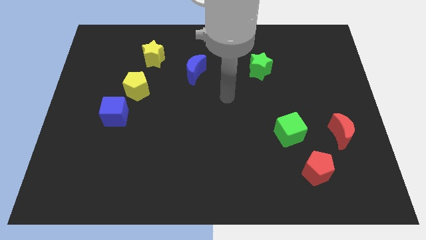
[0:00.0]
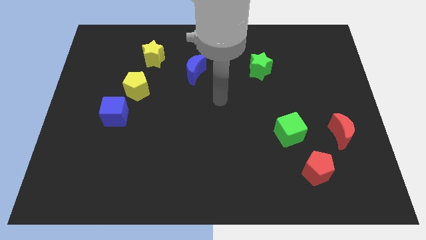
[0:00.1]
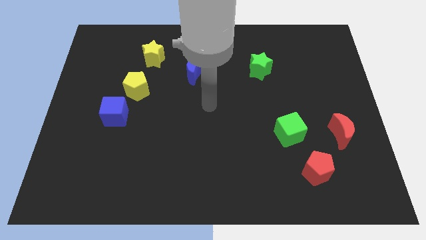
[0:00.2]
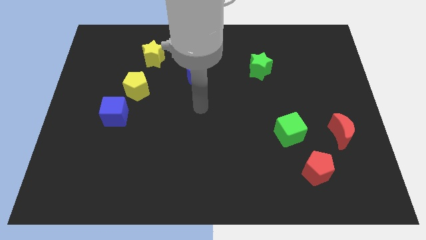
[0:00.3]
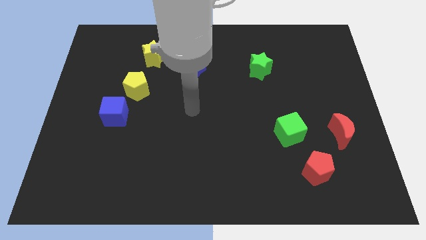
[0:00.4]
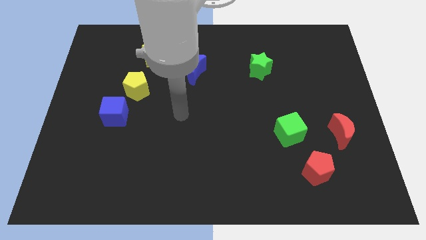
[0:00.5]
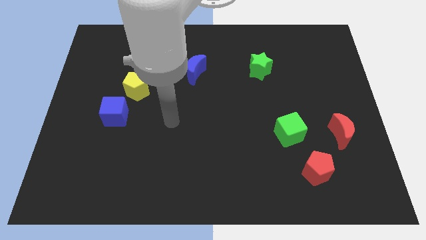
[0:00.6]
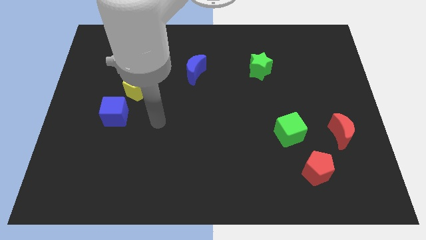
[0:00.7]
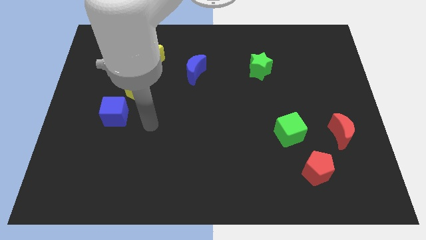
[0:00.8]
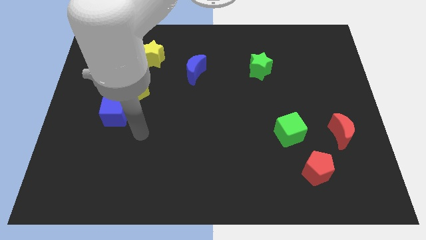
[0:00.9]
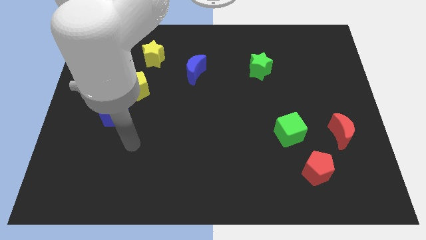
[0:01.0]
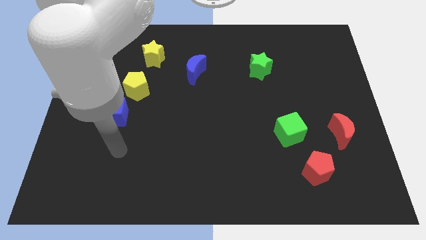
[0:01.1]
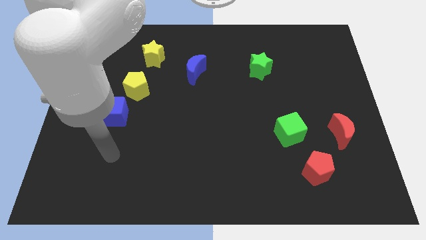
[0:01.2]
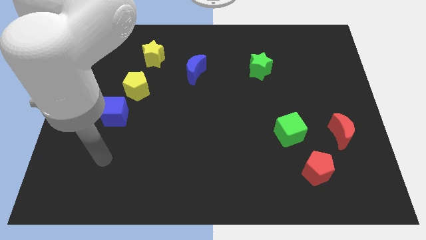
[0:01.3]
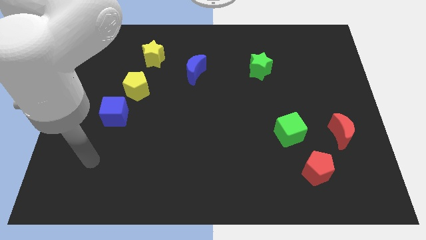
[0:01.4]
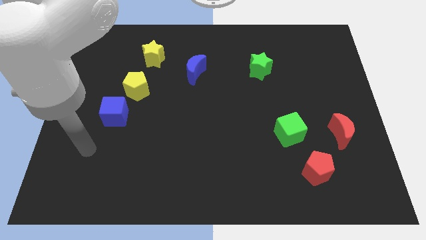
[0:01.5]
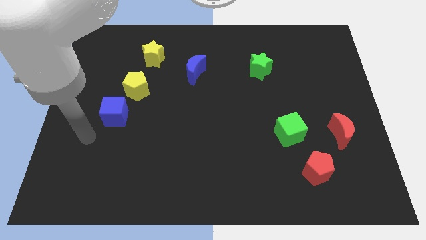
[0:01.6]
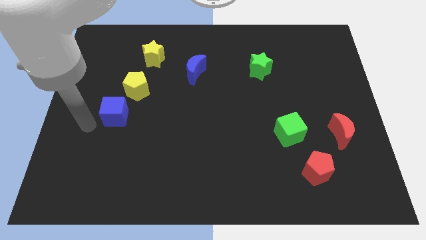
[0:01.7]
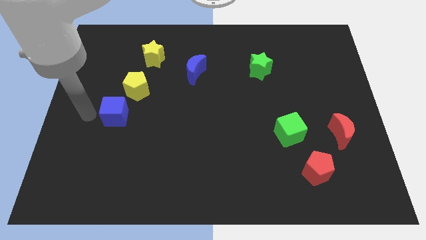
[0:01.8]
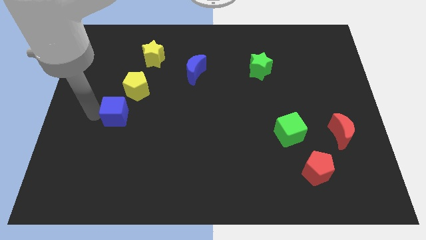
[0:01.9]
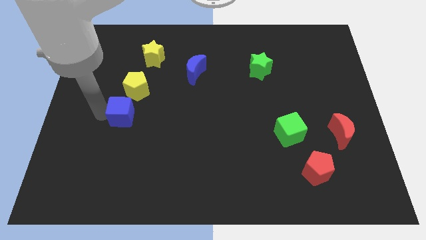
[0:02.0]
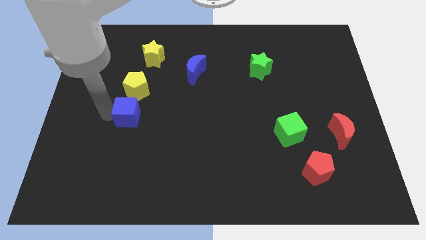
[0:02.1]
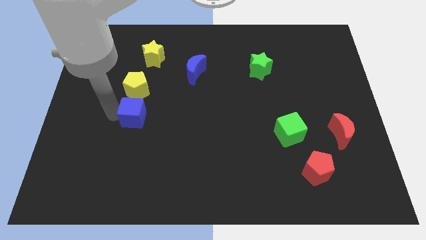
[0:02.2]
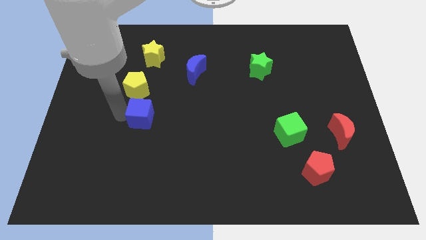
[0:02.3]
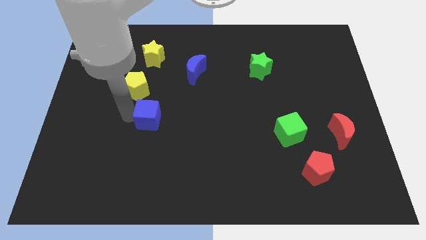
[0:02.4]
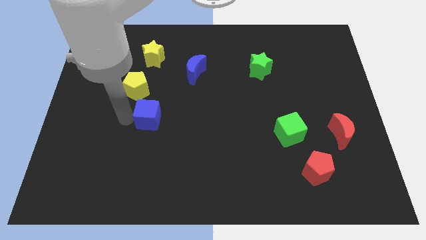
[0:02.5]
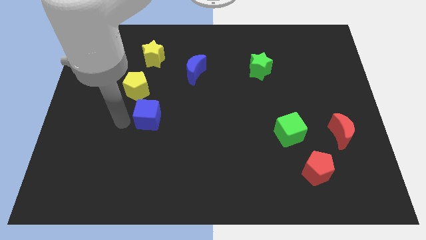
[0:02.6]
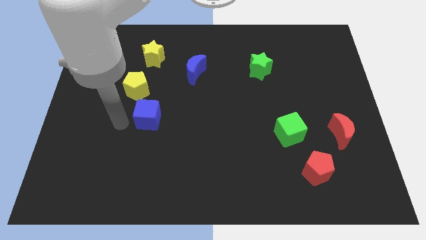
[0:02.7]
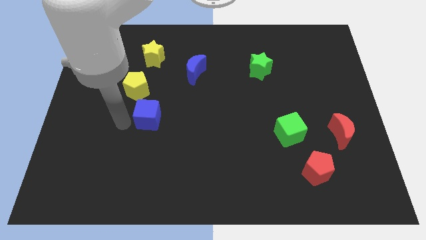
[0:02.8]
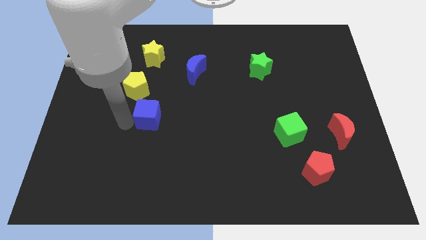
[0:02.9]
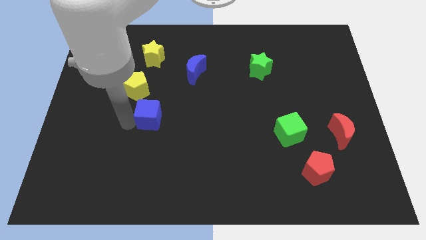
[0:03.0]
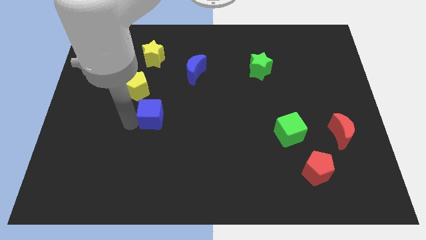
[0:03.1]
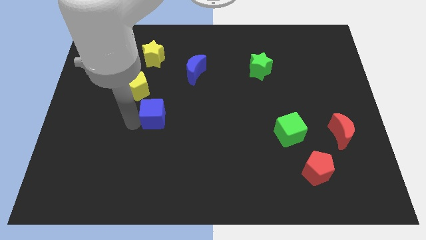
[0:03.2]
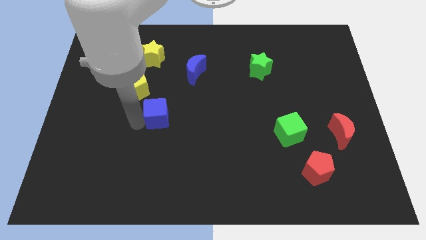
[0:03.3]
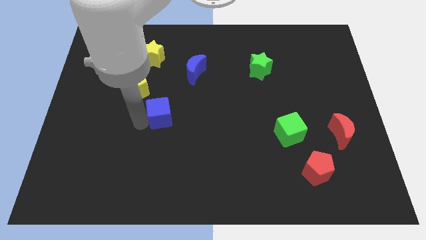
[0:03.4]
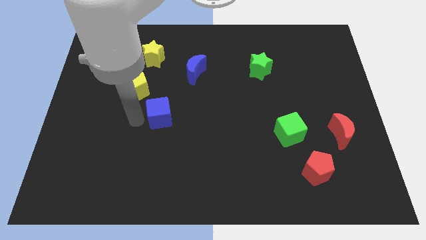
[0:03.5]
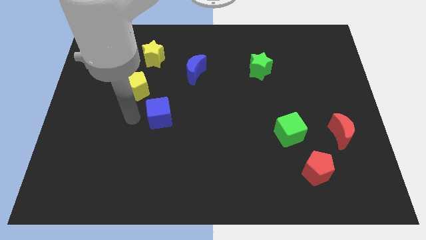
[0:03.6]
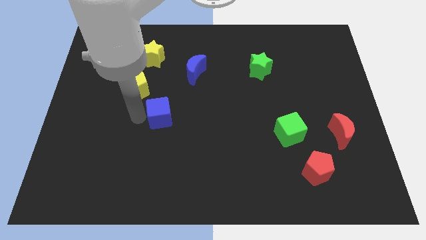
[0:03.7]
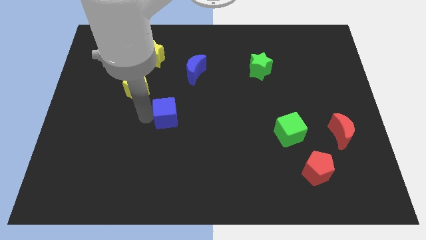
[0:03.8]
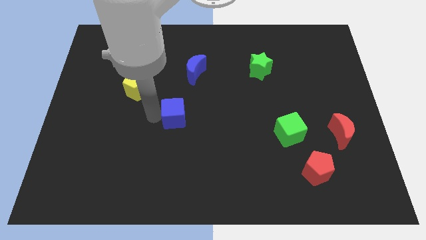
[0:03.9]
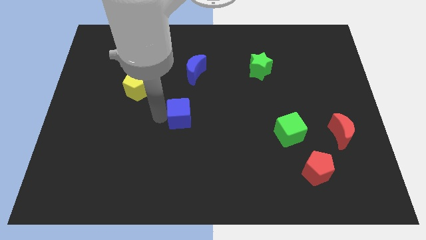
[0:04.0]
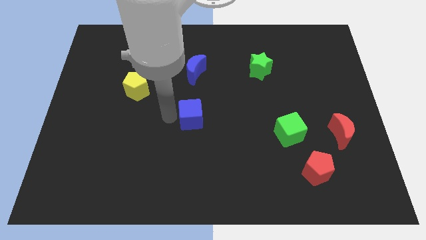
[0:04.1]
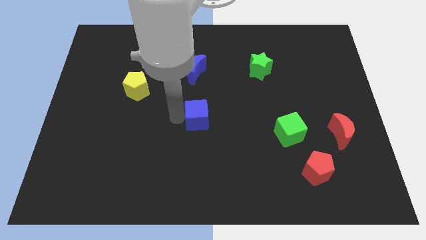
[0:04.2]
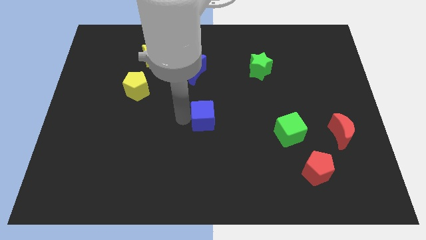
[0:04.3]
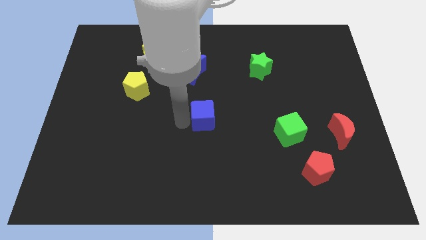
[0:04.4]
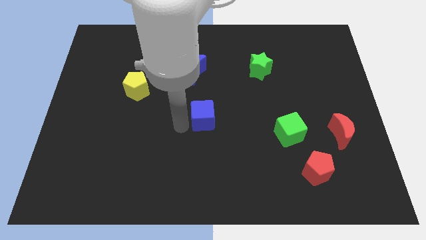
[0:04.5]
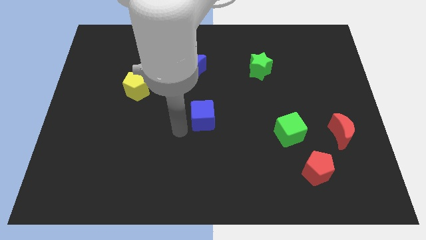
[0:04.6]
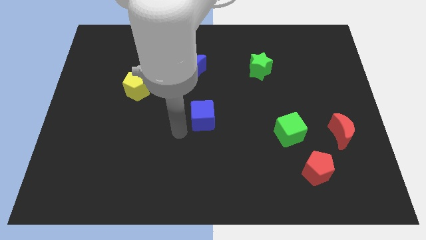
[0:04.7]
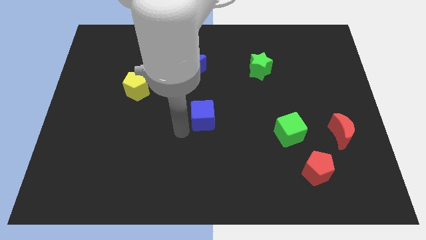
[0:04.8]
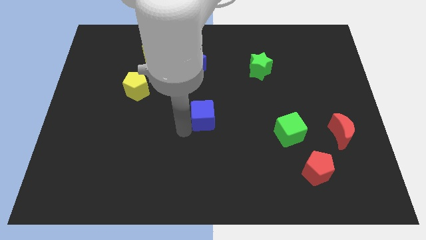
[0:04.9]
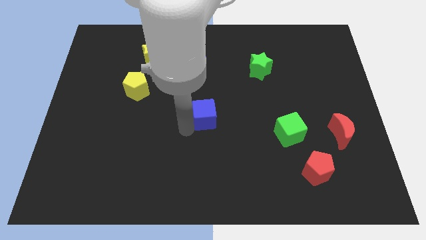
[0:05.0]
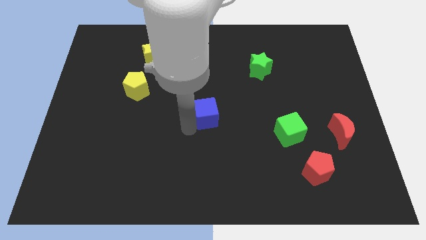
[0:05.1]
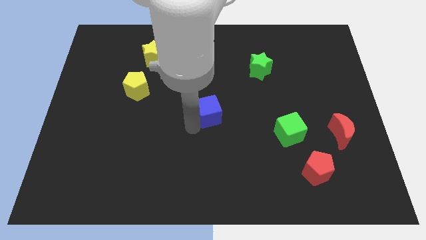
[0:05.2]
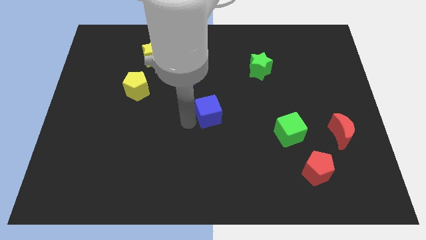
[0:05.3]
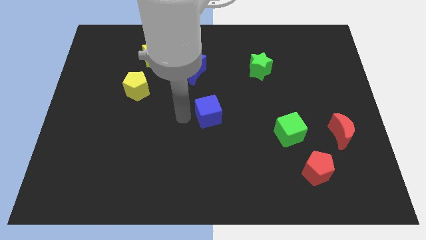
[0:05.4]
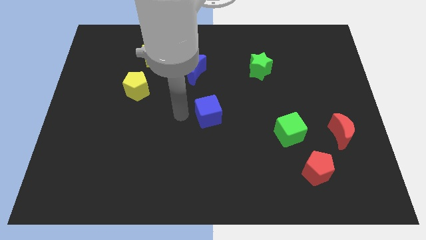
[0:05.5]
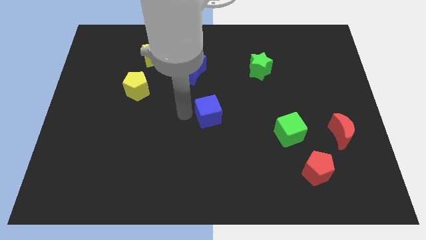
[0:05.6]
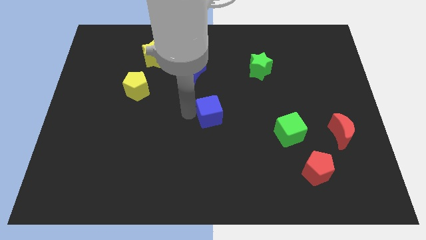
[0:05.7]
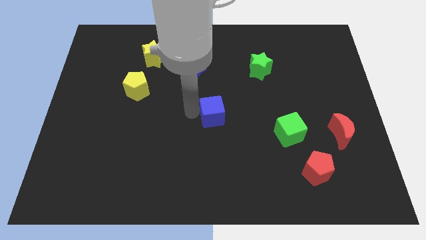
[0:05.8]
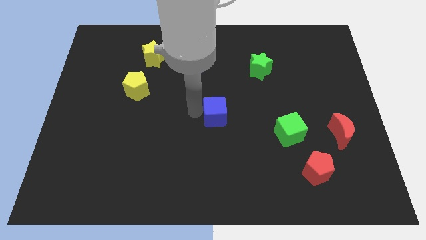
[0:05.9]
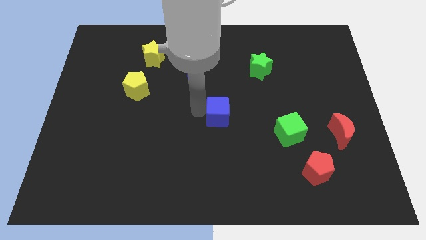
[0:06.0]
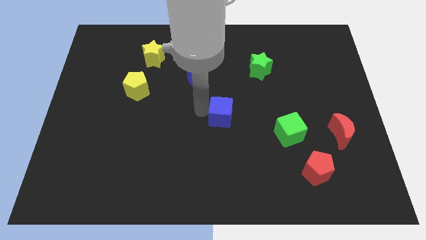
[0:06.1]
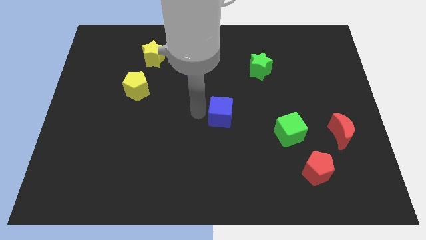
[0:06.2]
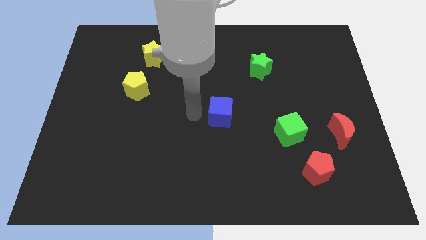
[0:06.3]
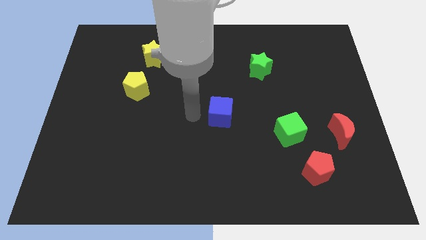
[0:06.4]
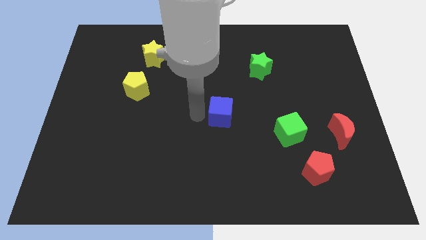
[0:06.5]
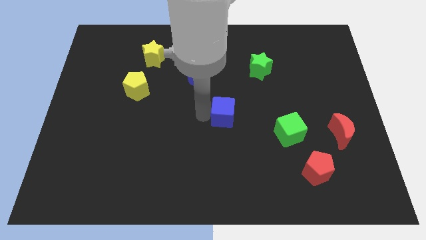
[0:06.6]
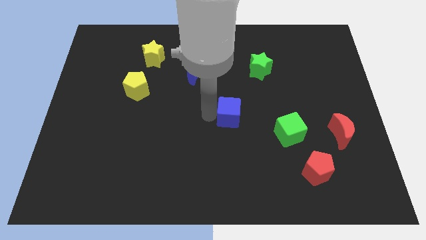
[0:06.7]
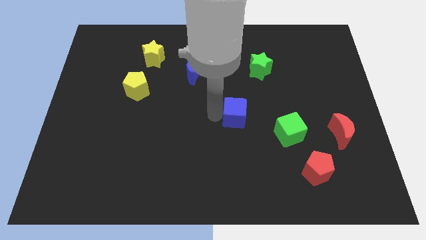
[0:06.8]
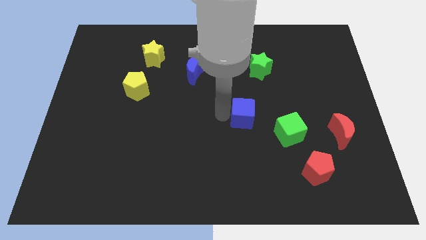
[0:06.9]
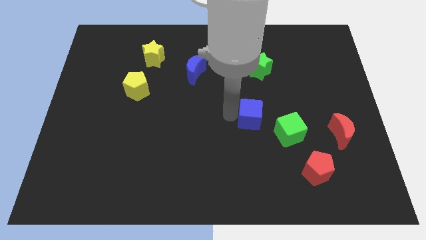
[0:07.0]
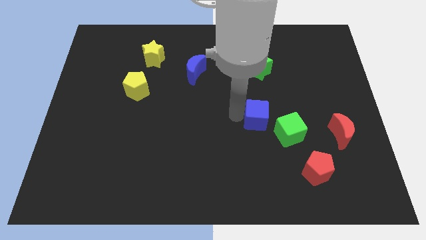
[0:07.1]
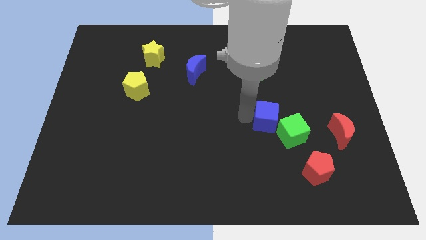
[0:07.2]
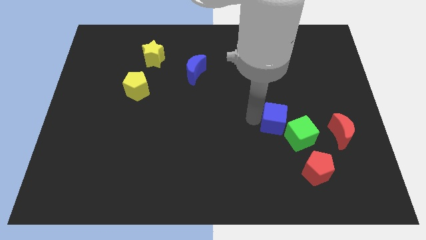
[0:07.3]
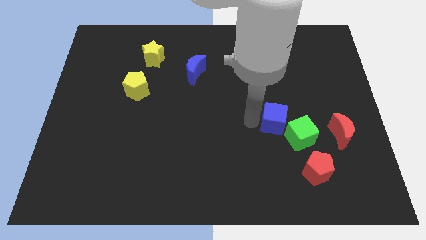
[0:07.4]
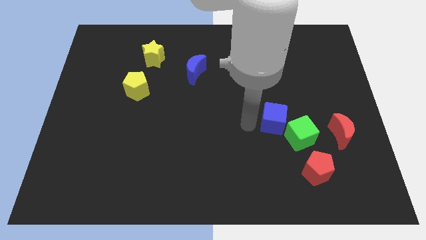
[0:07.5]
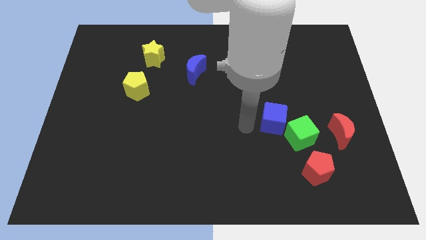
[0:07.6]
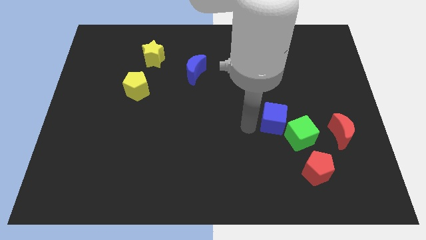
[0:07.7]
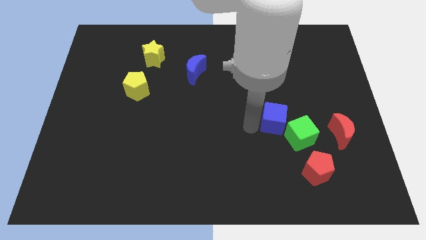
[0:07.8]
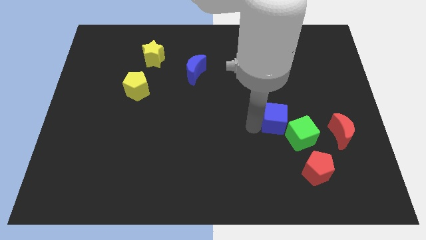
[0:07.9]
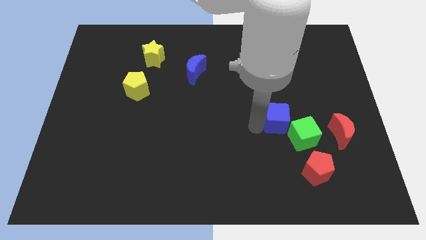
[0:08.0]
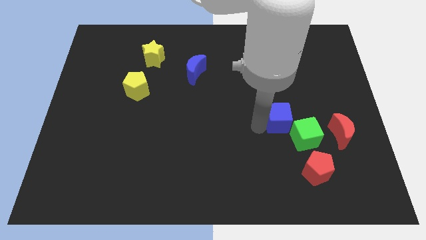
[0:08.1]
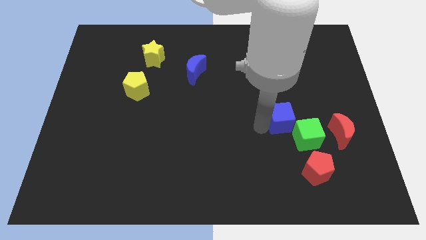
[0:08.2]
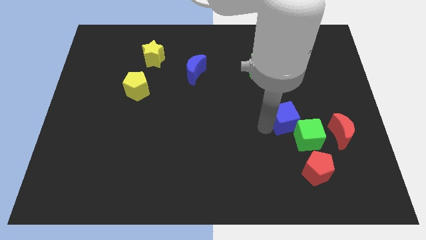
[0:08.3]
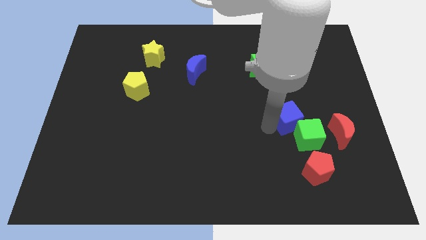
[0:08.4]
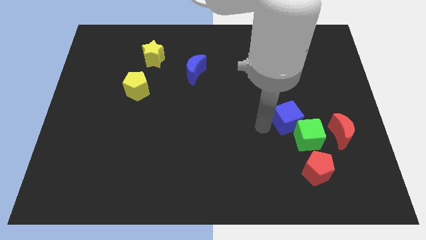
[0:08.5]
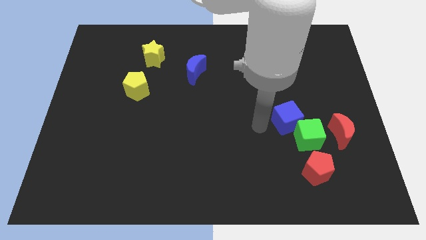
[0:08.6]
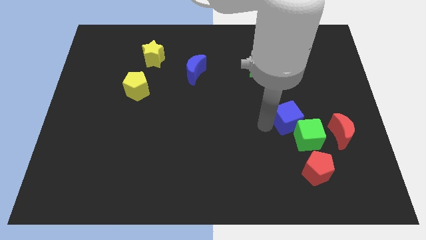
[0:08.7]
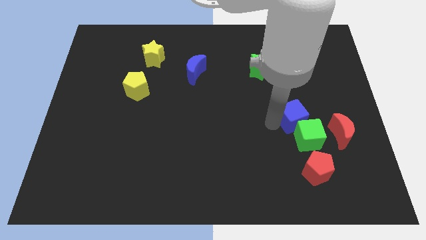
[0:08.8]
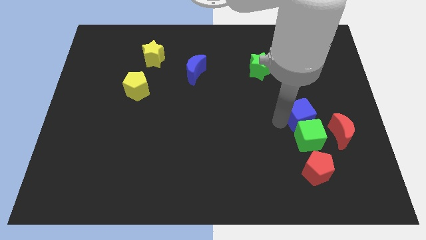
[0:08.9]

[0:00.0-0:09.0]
push the blue cube diagonally up and to the left of the red moon
